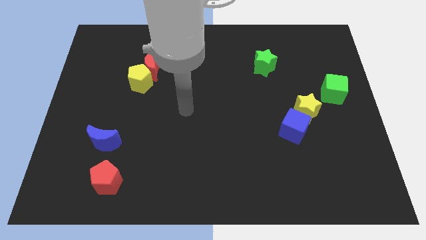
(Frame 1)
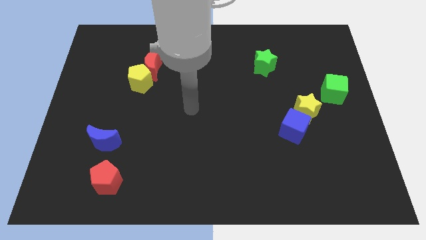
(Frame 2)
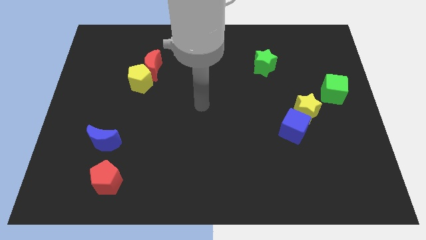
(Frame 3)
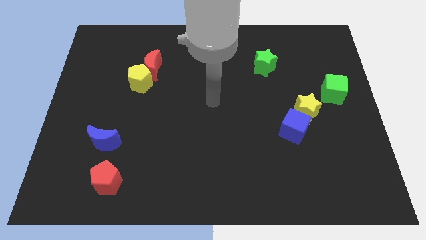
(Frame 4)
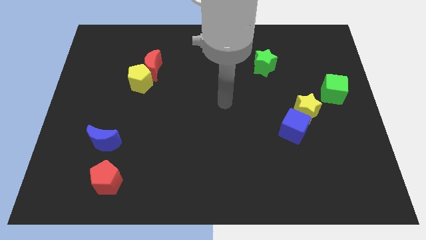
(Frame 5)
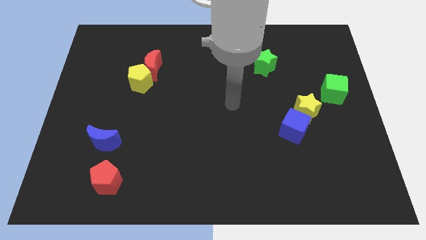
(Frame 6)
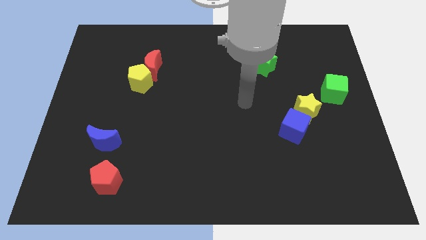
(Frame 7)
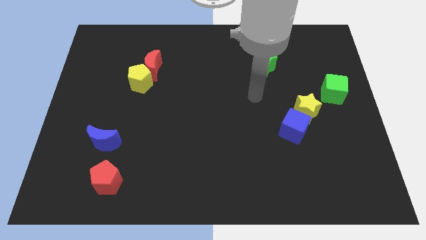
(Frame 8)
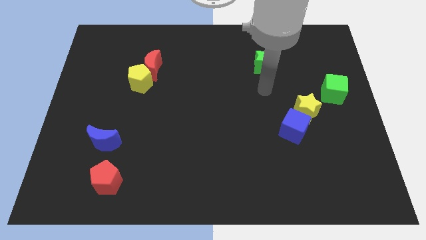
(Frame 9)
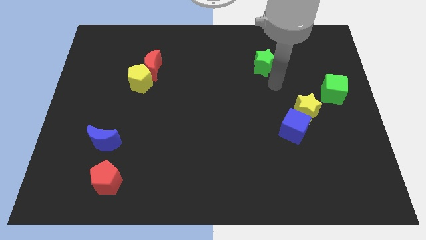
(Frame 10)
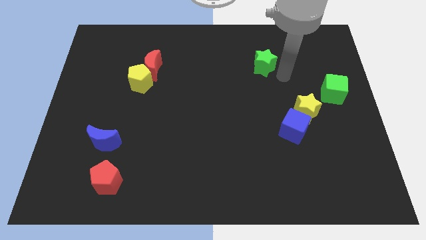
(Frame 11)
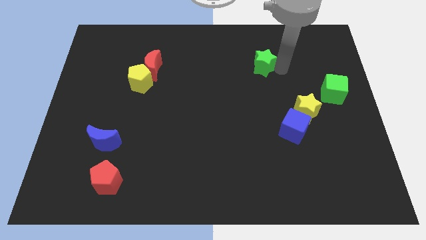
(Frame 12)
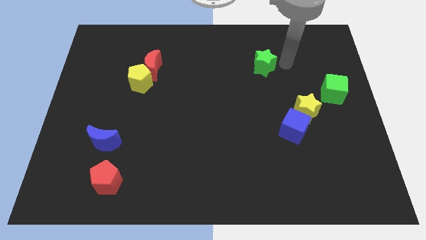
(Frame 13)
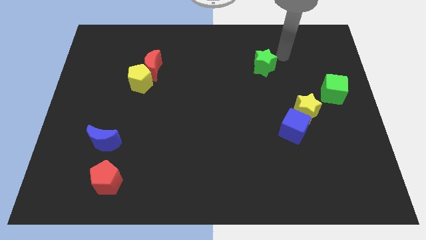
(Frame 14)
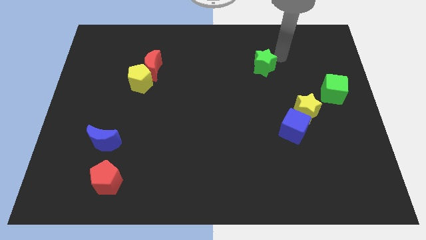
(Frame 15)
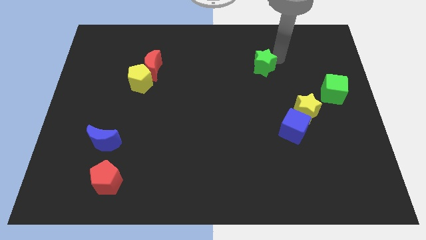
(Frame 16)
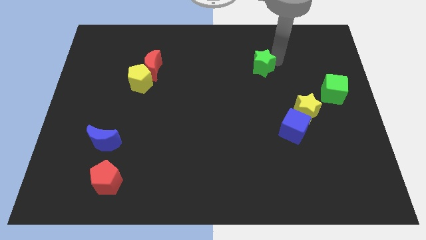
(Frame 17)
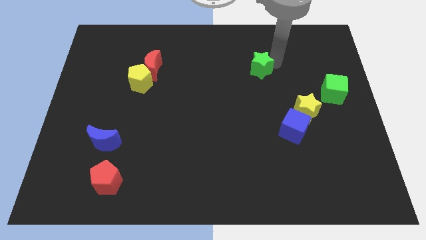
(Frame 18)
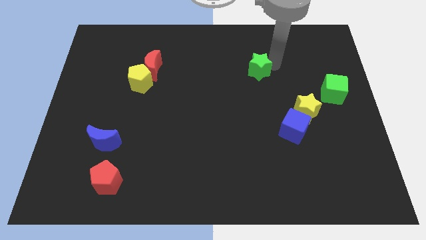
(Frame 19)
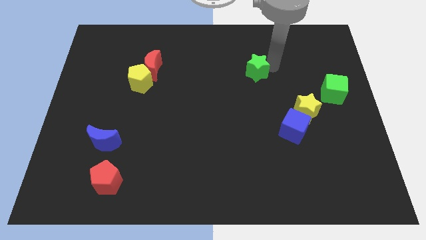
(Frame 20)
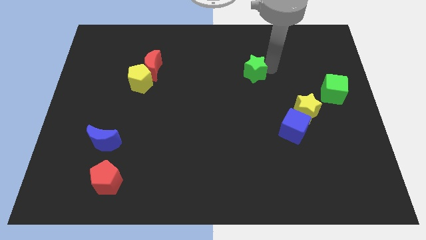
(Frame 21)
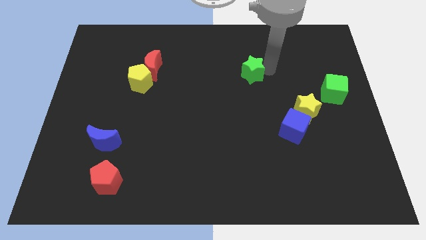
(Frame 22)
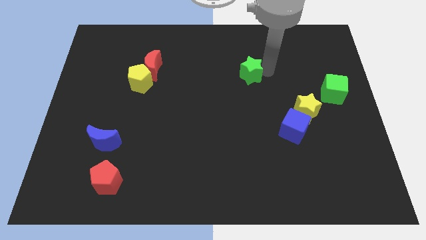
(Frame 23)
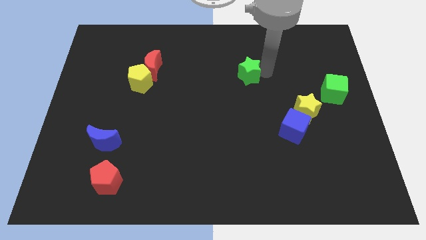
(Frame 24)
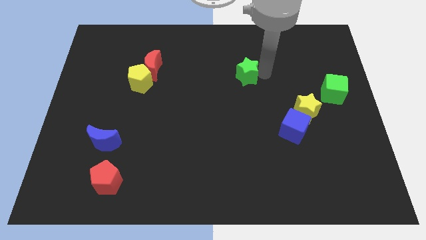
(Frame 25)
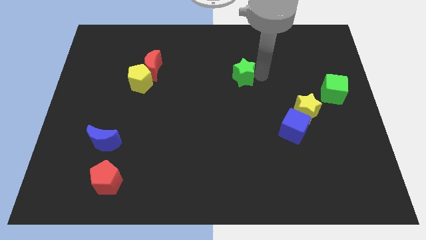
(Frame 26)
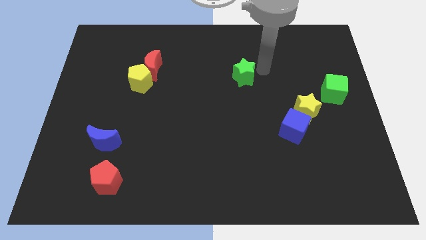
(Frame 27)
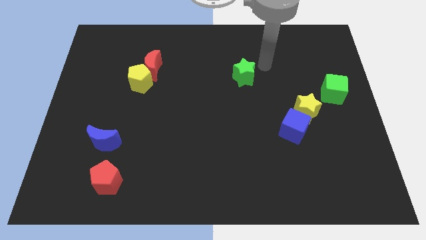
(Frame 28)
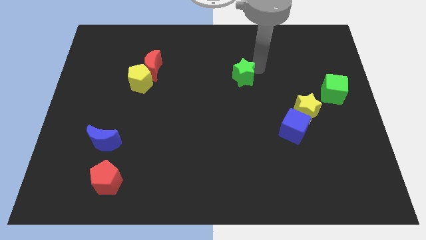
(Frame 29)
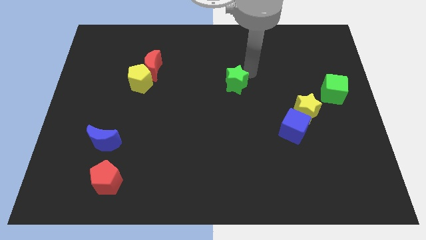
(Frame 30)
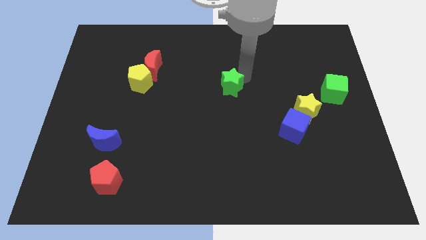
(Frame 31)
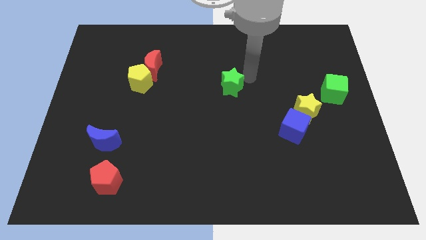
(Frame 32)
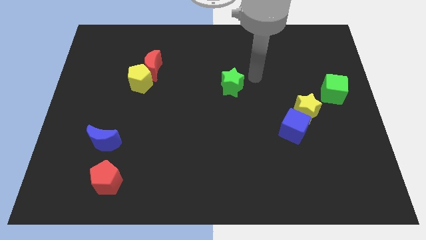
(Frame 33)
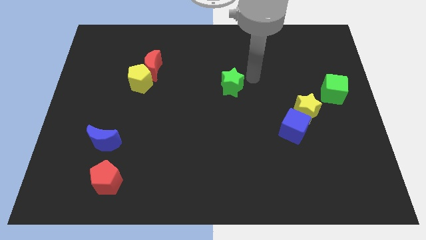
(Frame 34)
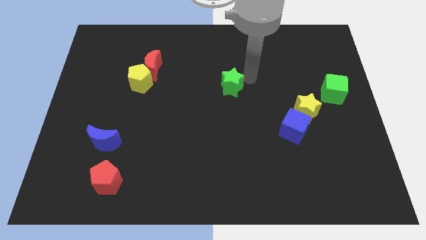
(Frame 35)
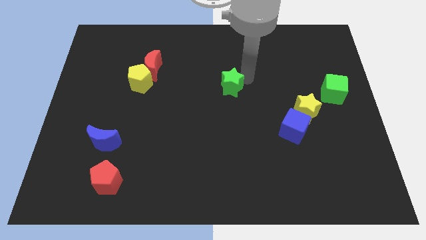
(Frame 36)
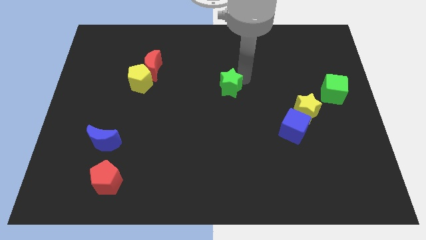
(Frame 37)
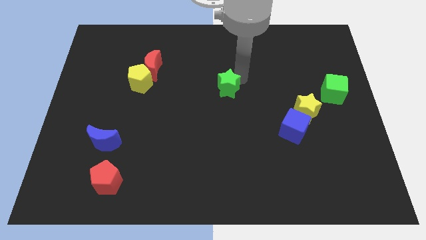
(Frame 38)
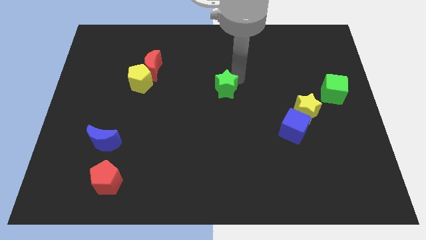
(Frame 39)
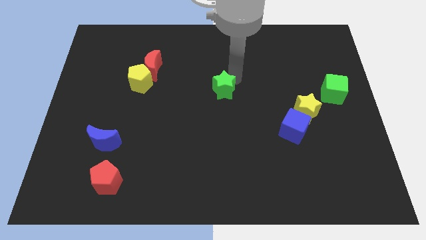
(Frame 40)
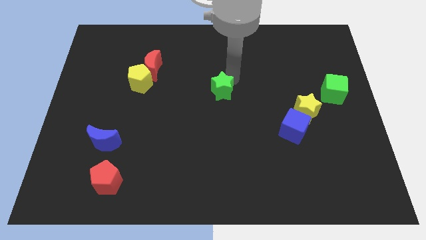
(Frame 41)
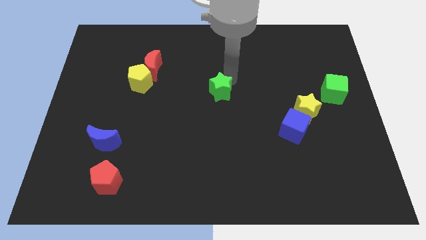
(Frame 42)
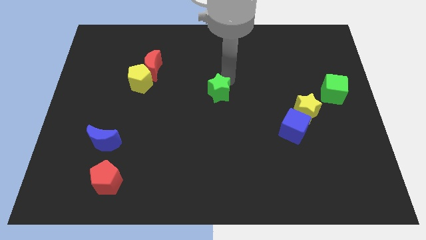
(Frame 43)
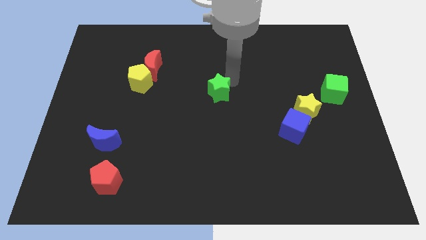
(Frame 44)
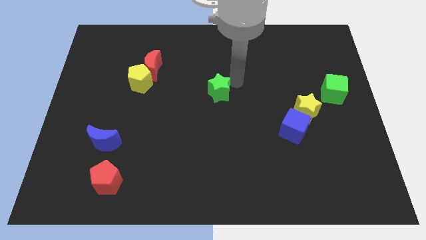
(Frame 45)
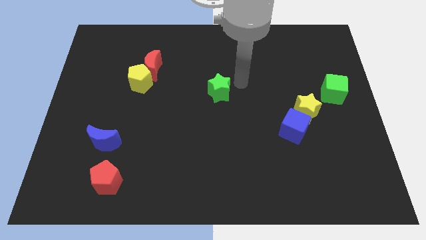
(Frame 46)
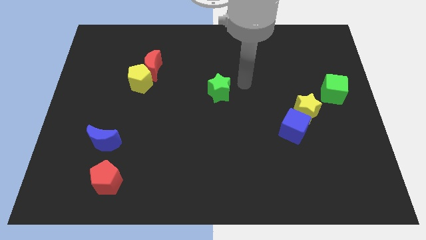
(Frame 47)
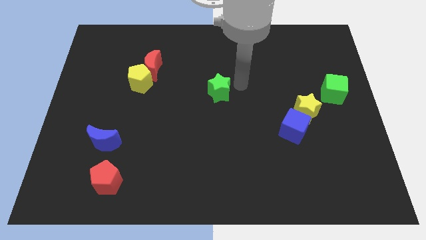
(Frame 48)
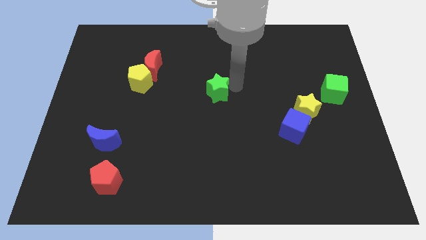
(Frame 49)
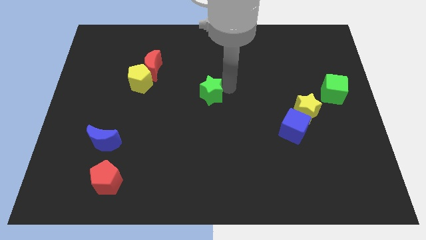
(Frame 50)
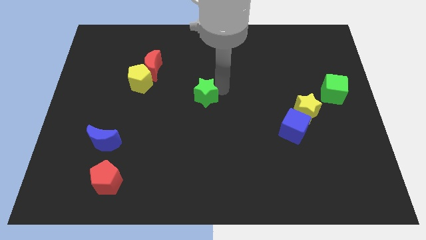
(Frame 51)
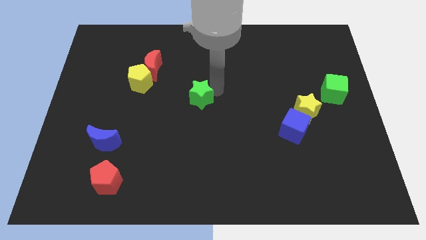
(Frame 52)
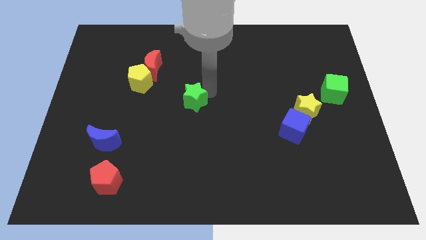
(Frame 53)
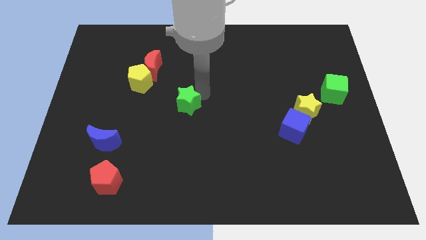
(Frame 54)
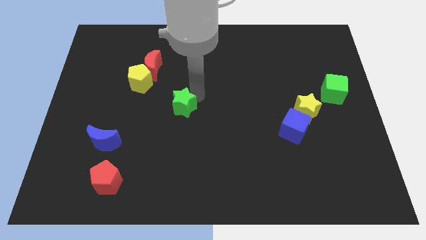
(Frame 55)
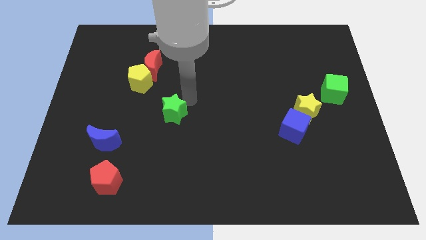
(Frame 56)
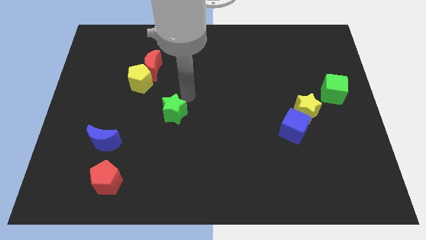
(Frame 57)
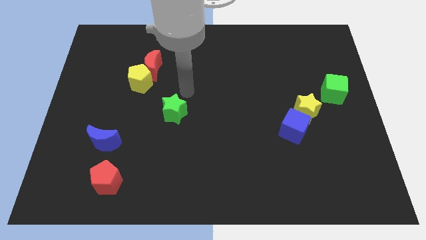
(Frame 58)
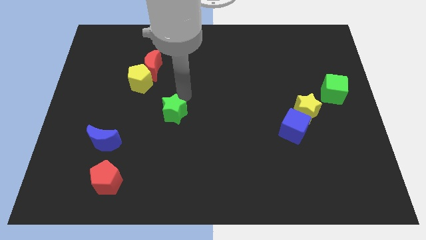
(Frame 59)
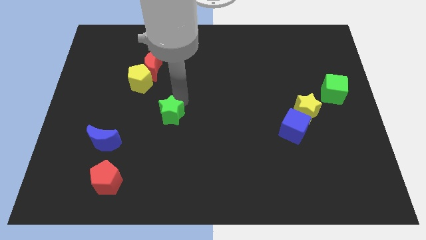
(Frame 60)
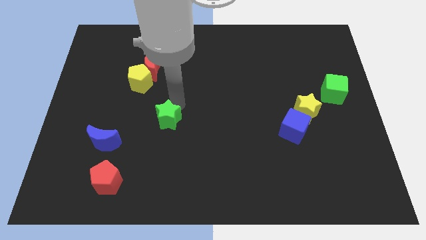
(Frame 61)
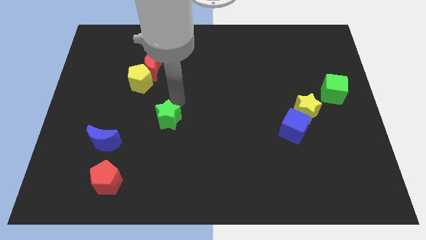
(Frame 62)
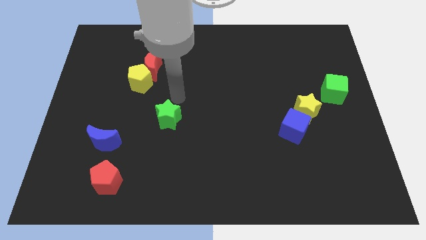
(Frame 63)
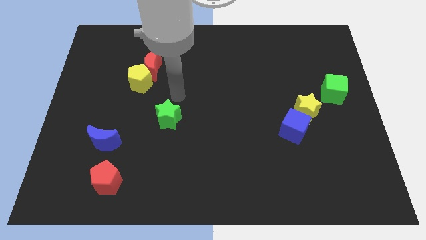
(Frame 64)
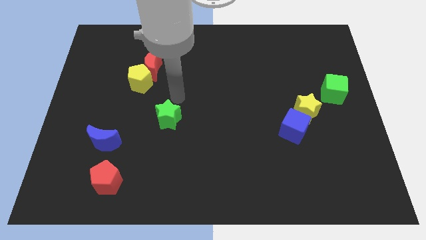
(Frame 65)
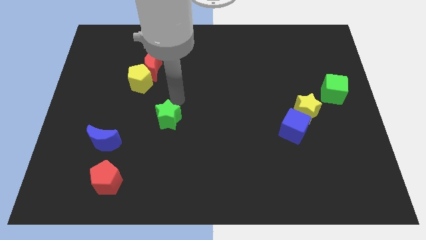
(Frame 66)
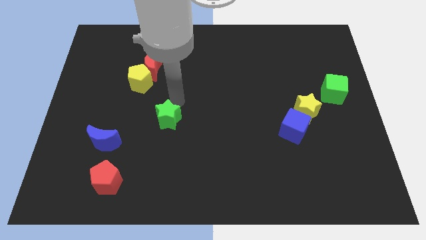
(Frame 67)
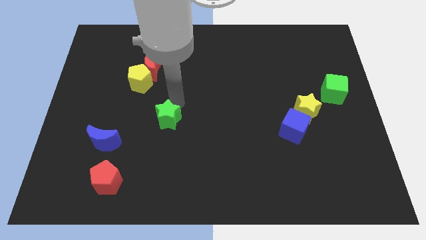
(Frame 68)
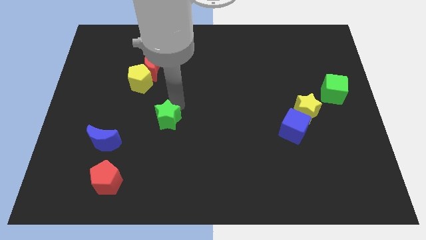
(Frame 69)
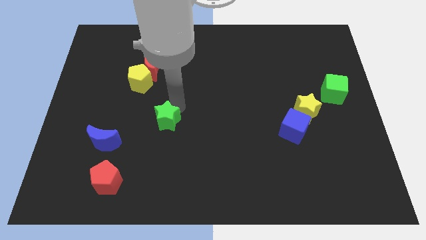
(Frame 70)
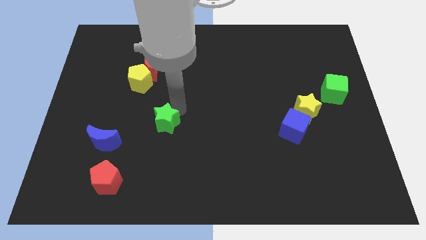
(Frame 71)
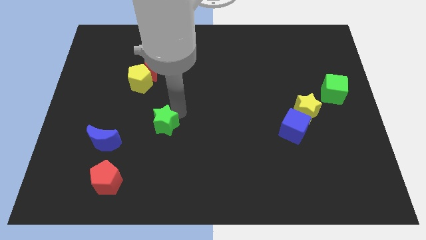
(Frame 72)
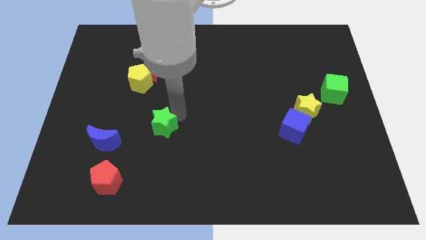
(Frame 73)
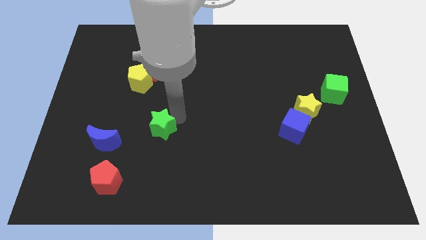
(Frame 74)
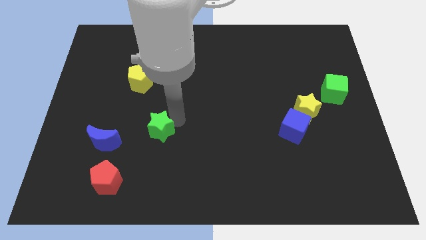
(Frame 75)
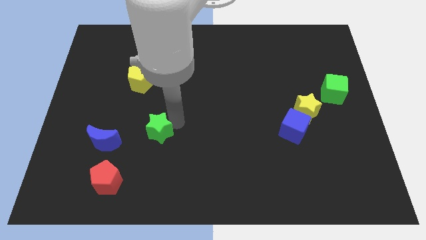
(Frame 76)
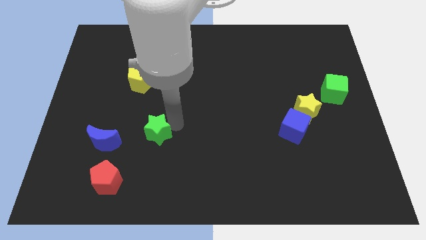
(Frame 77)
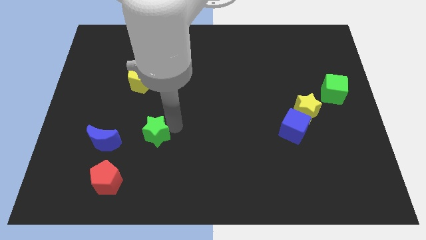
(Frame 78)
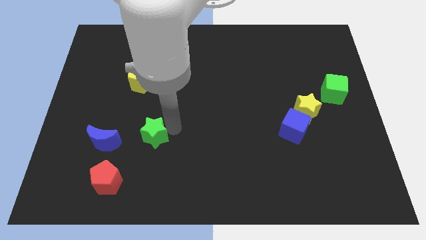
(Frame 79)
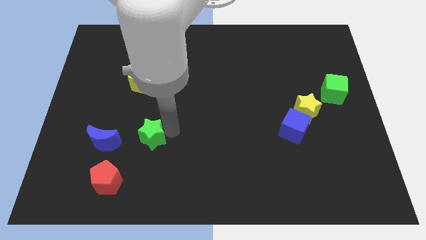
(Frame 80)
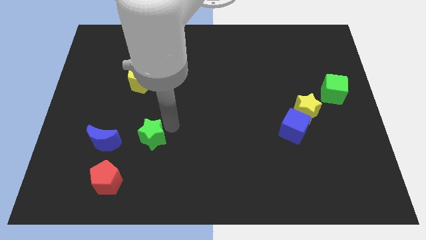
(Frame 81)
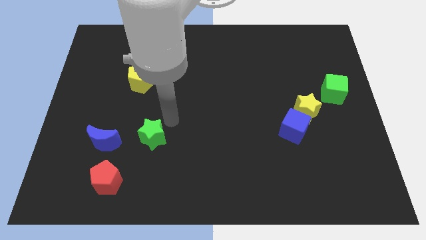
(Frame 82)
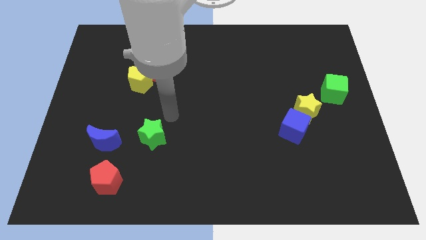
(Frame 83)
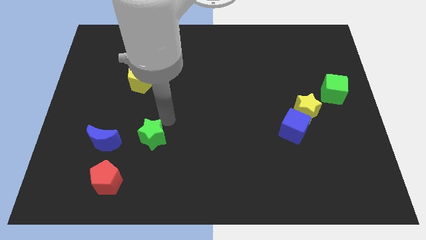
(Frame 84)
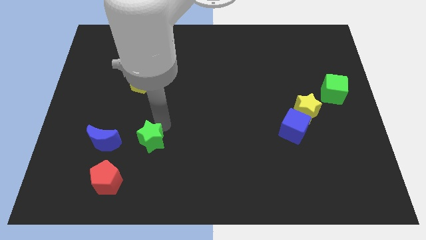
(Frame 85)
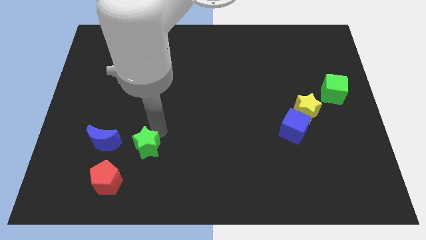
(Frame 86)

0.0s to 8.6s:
move the green star to the top right side of the red pentagon
